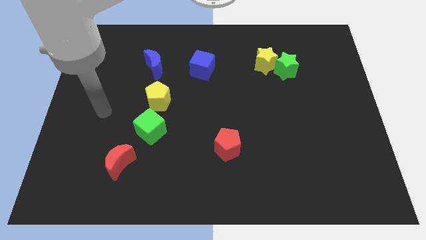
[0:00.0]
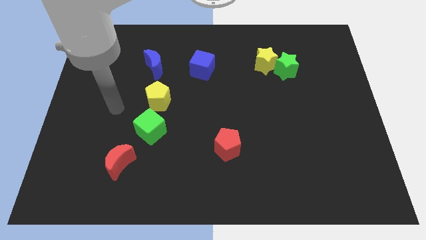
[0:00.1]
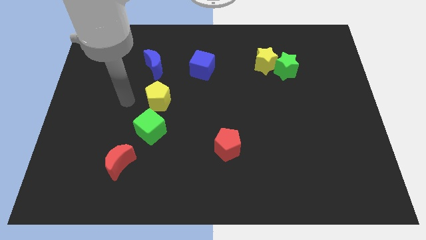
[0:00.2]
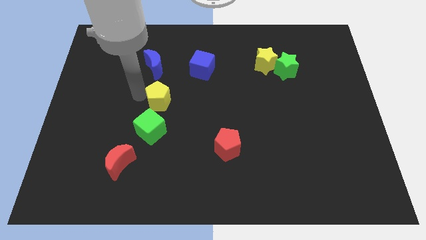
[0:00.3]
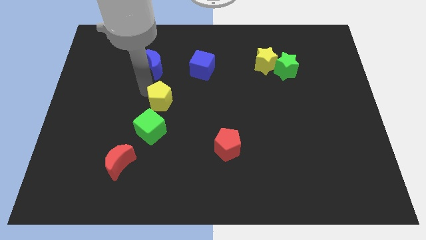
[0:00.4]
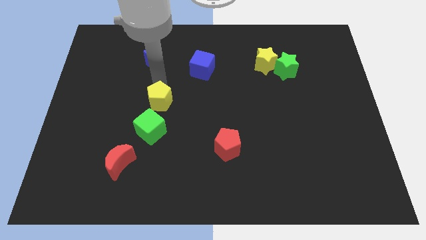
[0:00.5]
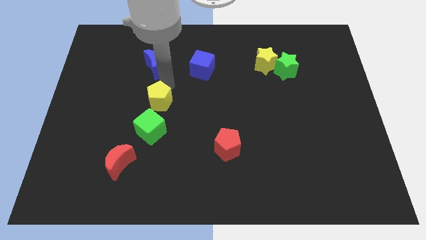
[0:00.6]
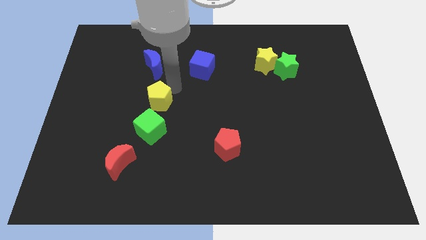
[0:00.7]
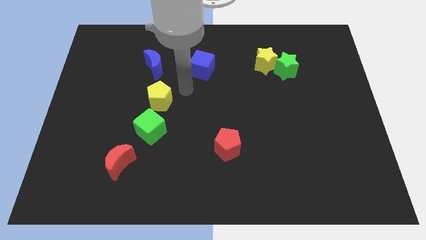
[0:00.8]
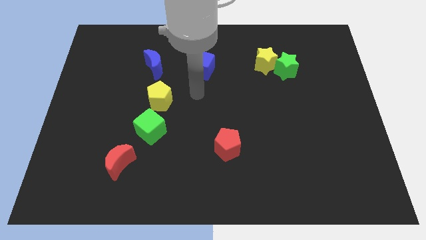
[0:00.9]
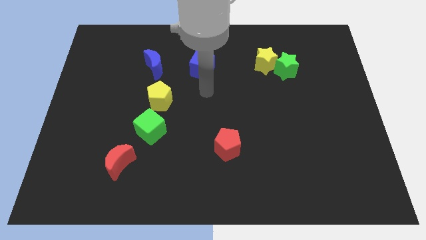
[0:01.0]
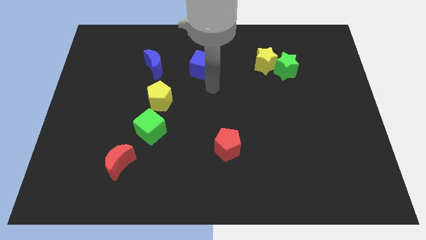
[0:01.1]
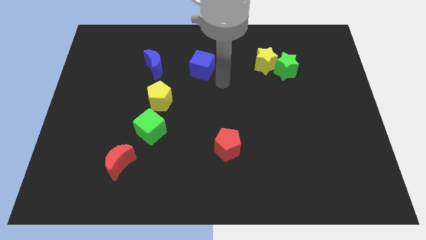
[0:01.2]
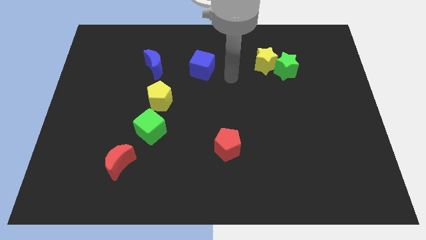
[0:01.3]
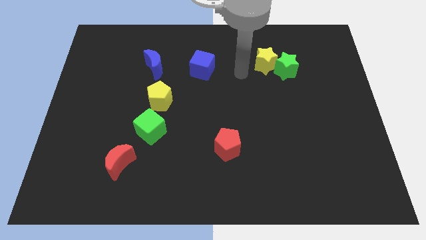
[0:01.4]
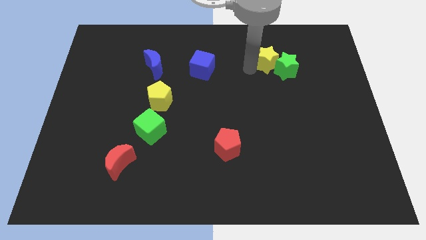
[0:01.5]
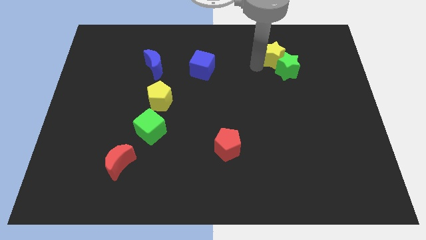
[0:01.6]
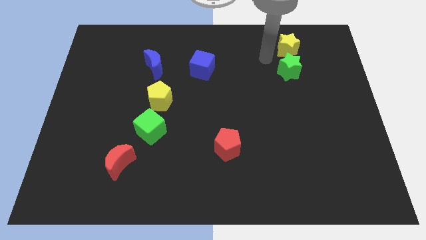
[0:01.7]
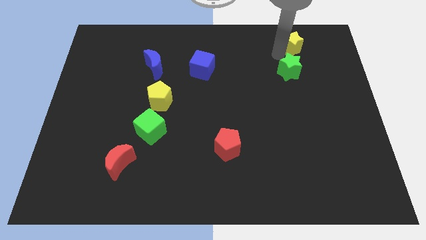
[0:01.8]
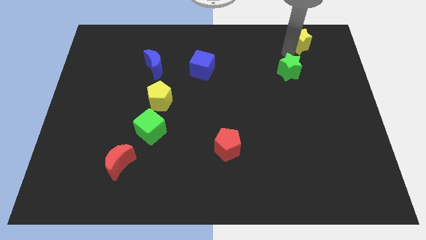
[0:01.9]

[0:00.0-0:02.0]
move the green star away from the yellow star

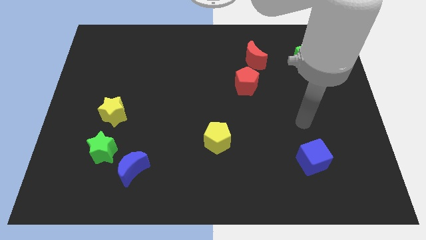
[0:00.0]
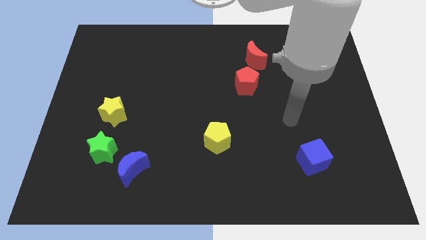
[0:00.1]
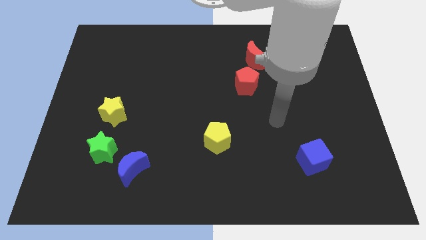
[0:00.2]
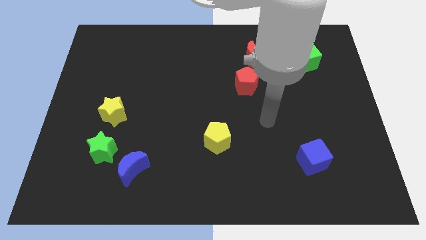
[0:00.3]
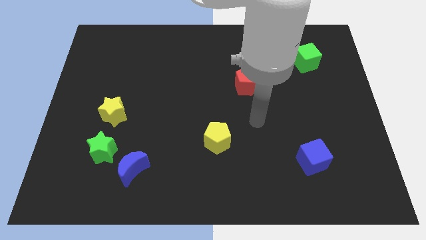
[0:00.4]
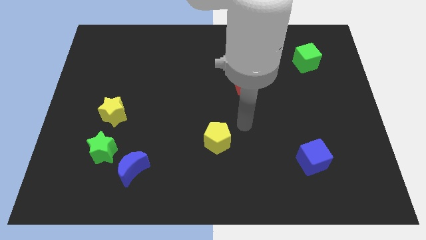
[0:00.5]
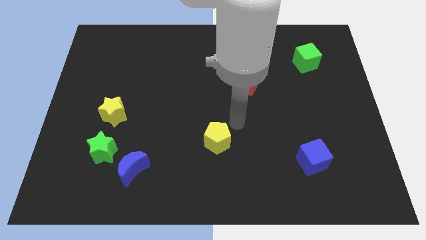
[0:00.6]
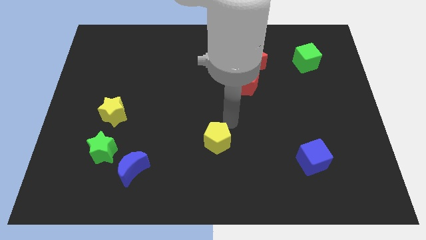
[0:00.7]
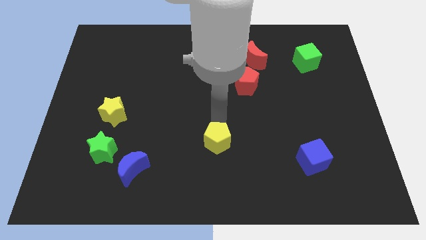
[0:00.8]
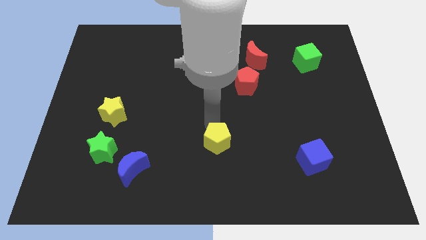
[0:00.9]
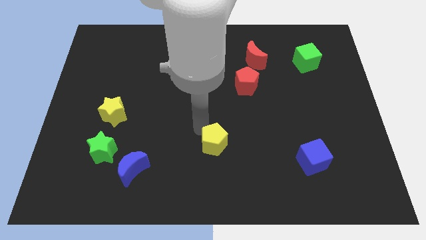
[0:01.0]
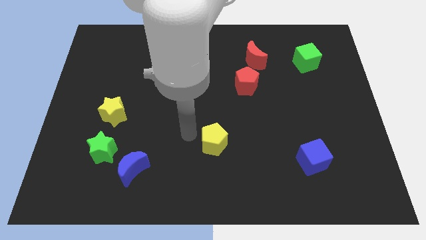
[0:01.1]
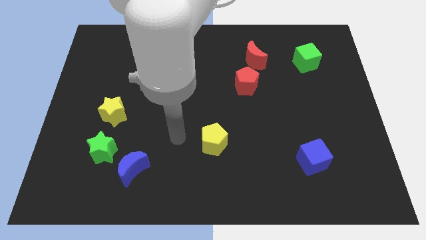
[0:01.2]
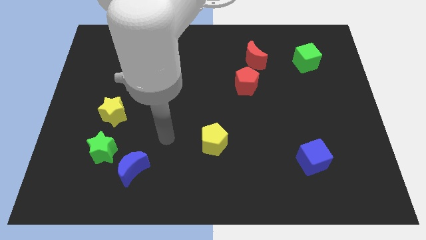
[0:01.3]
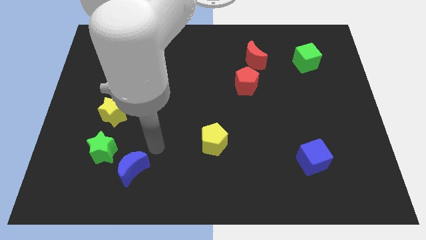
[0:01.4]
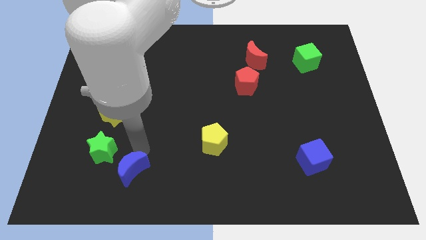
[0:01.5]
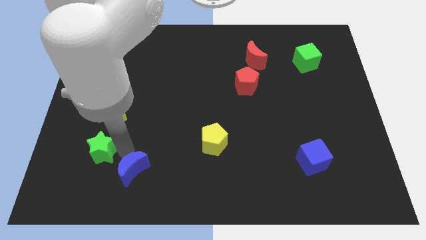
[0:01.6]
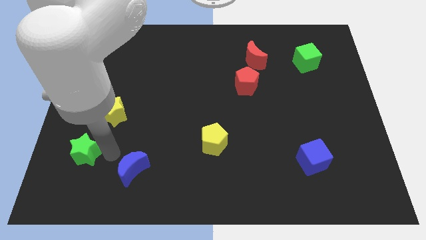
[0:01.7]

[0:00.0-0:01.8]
move the blue moon away from the green star

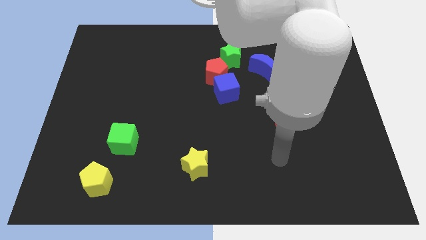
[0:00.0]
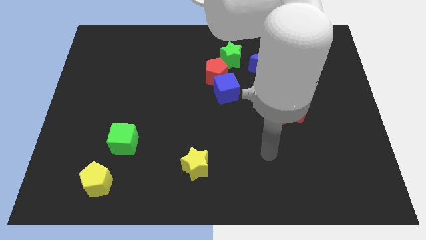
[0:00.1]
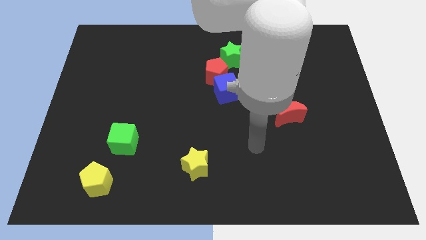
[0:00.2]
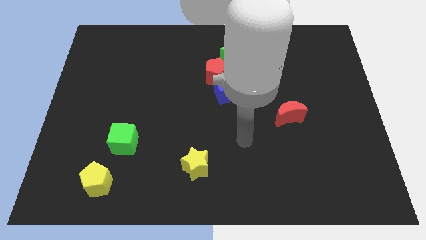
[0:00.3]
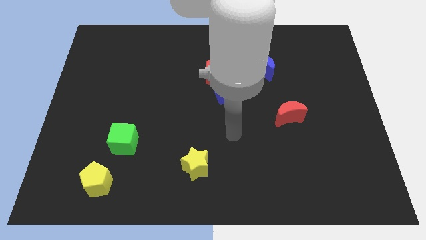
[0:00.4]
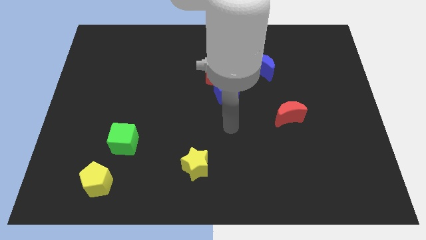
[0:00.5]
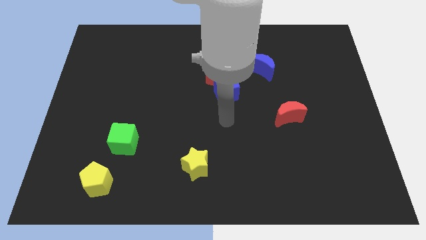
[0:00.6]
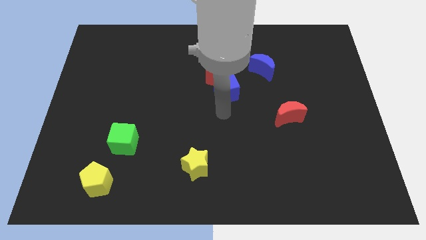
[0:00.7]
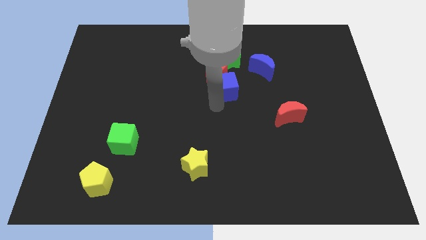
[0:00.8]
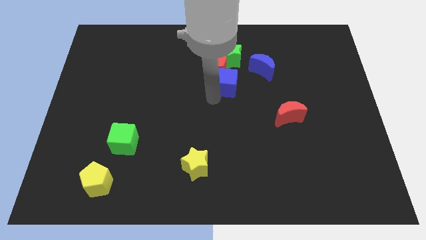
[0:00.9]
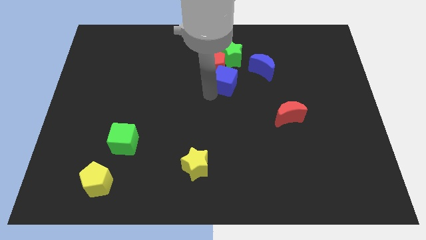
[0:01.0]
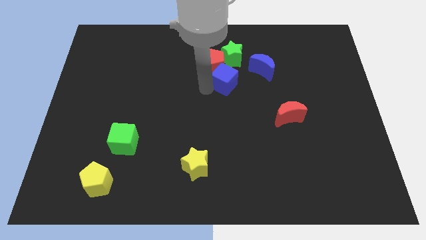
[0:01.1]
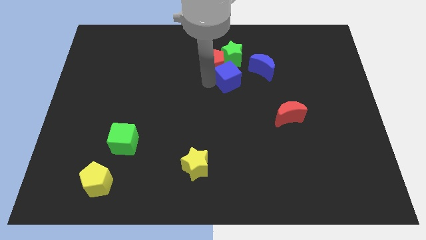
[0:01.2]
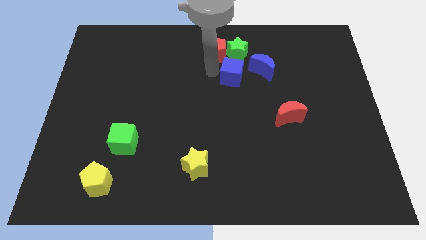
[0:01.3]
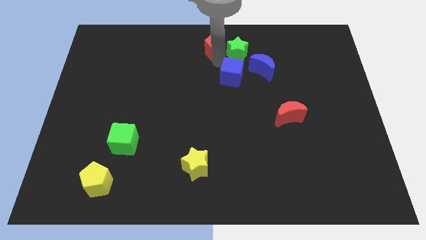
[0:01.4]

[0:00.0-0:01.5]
move the blue cube away from the red pentagon

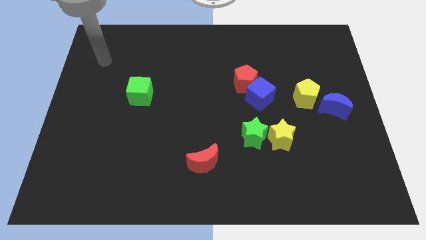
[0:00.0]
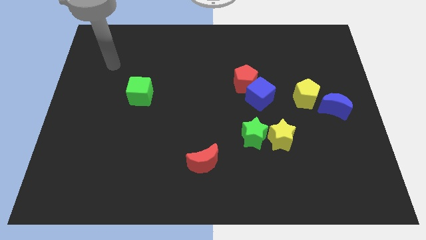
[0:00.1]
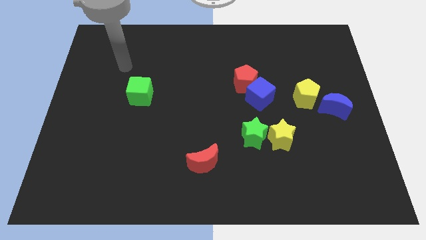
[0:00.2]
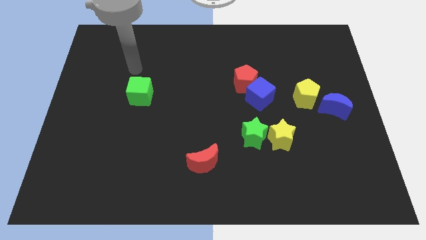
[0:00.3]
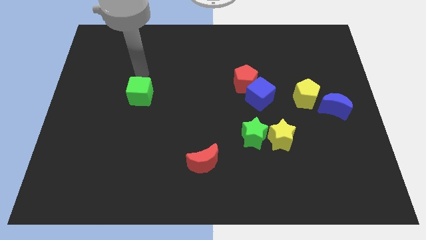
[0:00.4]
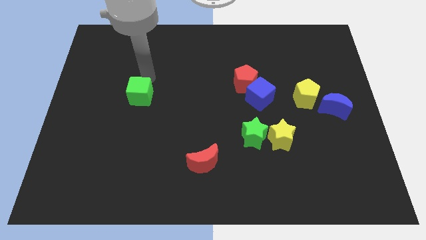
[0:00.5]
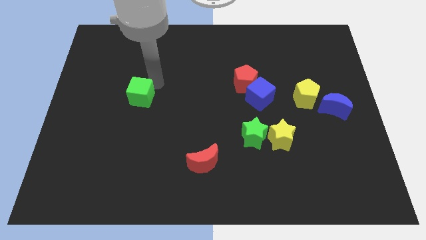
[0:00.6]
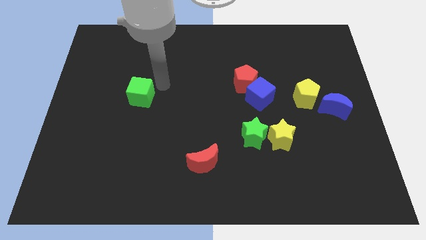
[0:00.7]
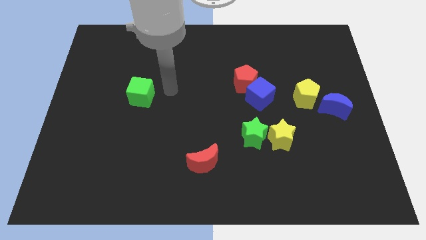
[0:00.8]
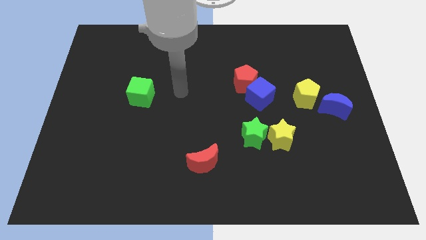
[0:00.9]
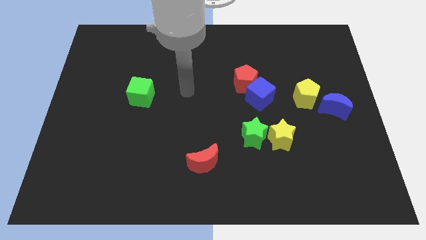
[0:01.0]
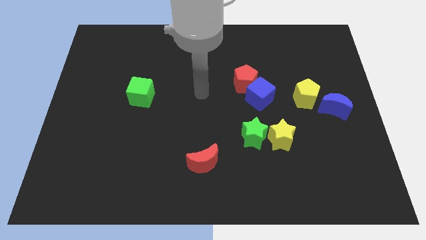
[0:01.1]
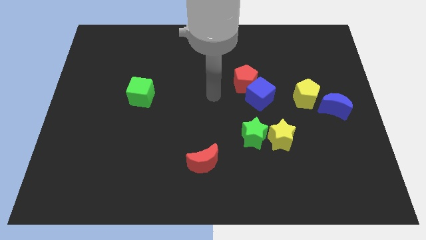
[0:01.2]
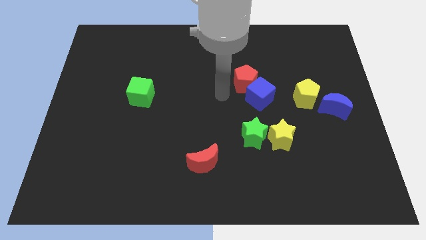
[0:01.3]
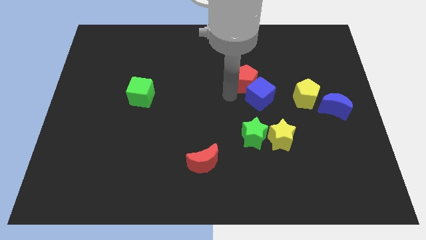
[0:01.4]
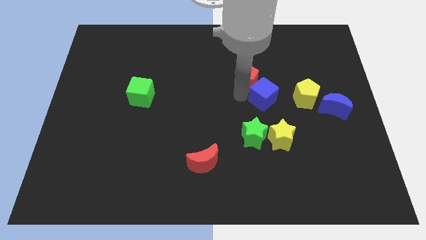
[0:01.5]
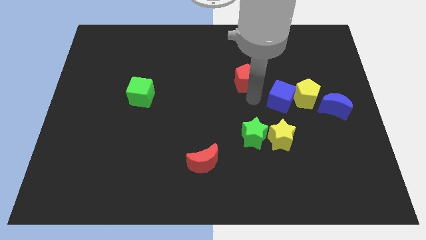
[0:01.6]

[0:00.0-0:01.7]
move the red pentagon away from the blue cube

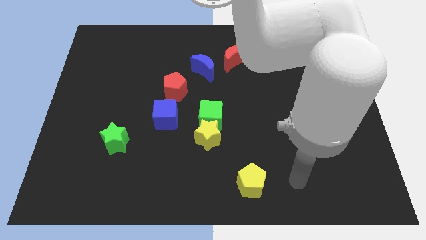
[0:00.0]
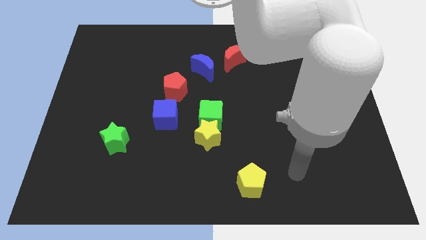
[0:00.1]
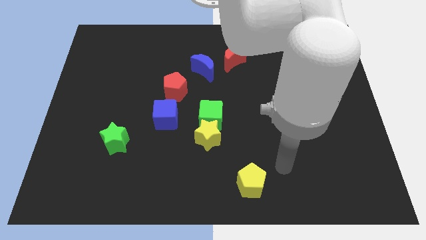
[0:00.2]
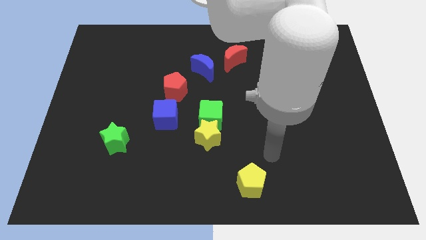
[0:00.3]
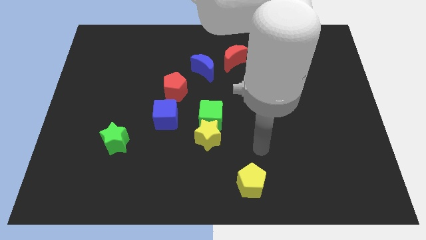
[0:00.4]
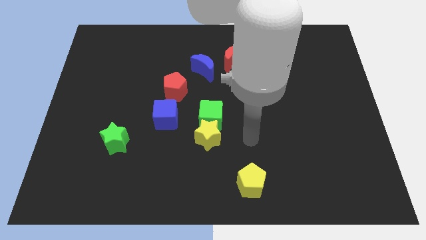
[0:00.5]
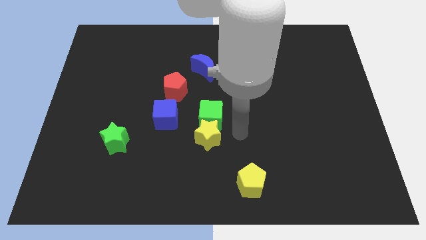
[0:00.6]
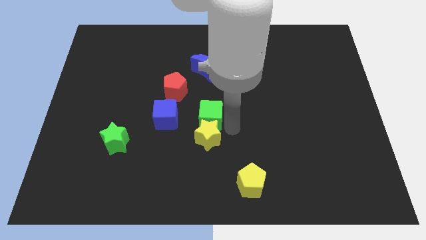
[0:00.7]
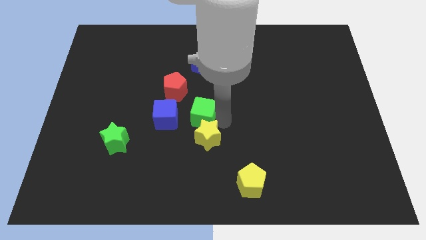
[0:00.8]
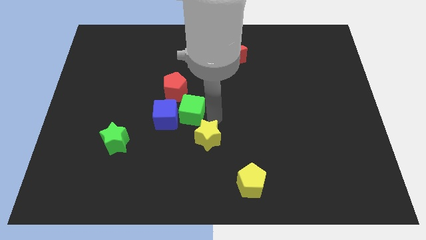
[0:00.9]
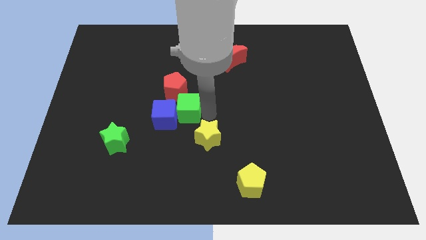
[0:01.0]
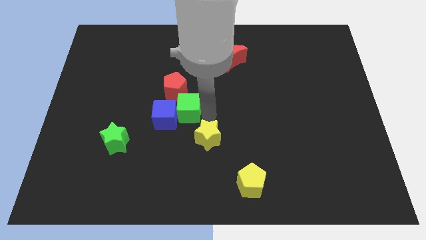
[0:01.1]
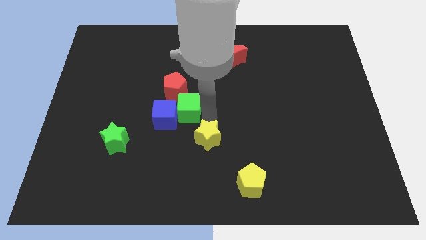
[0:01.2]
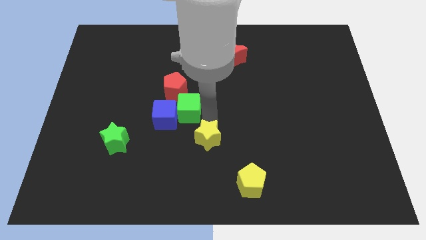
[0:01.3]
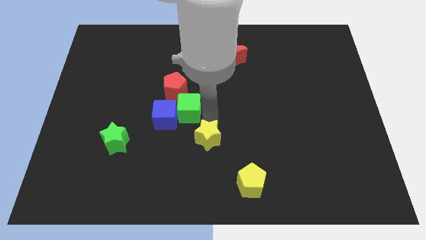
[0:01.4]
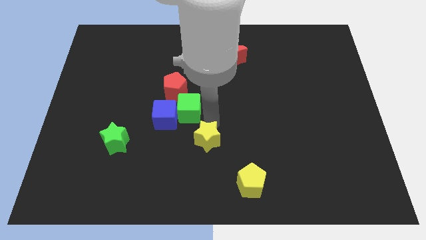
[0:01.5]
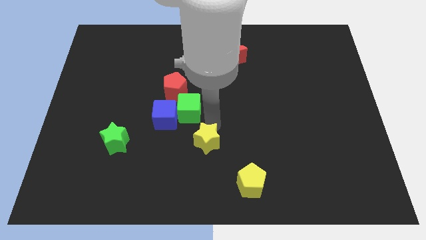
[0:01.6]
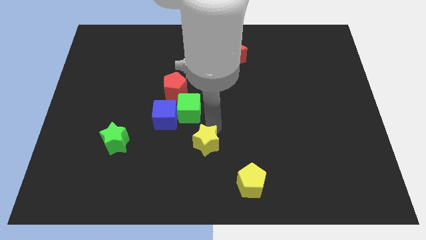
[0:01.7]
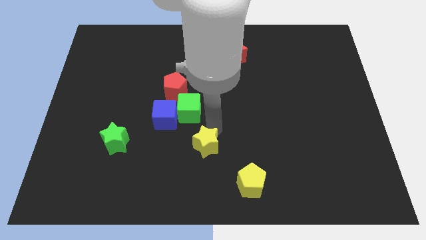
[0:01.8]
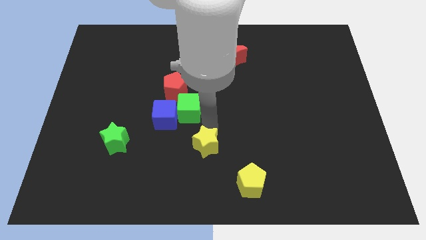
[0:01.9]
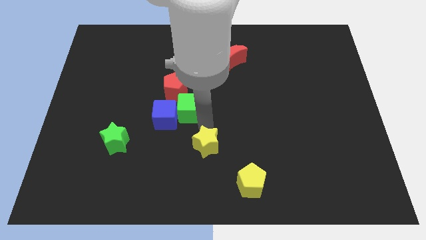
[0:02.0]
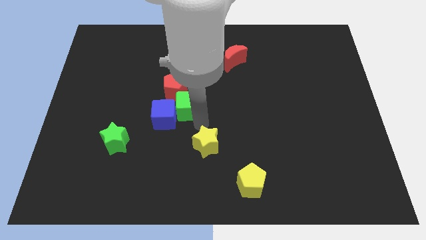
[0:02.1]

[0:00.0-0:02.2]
separate the yellow star from the green cube

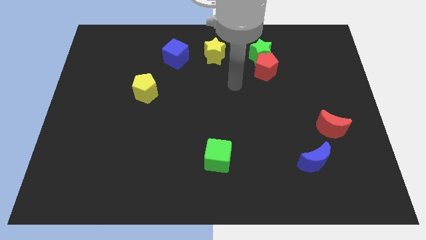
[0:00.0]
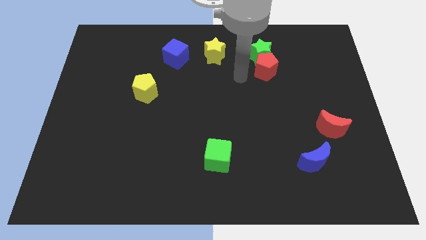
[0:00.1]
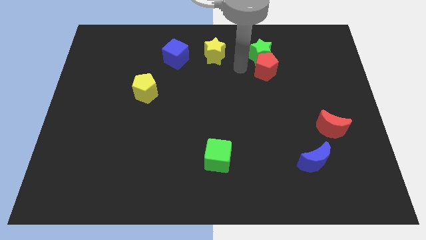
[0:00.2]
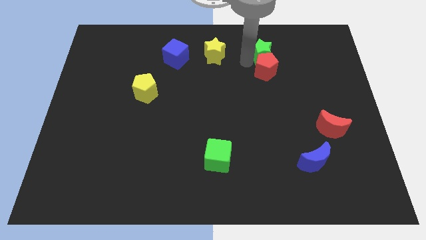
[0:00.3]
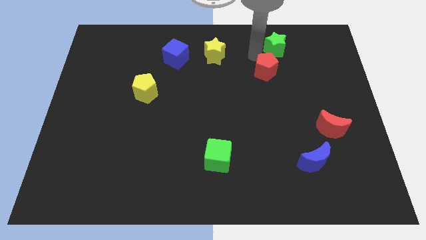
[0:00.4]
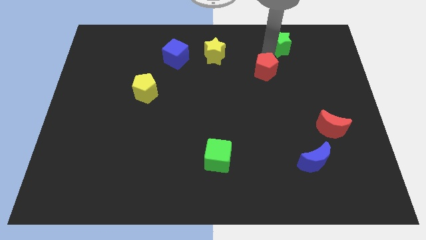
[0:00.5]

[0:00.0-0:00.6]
pull the red pentagon apart from the green star
